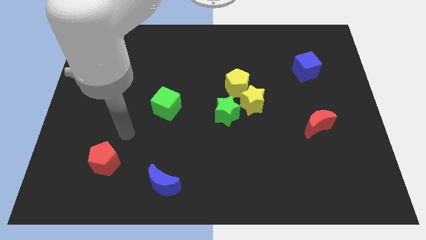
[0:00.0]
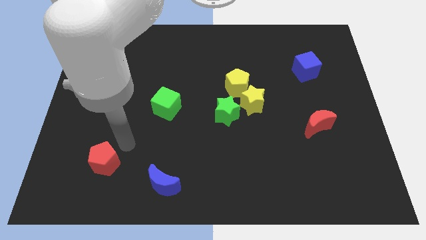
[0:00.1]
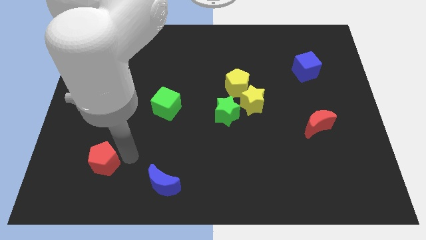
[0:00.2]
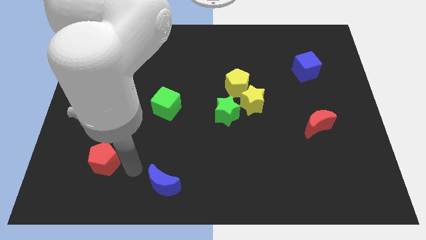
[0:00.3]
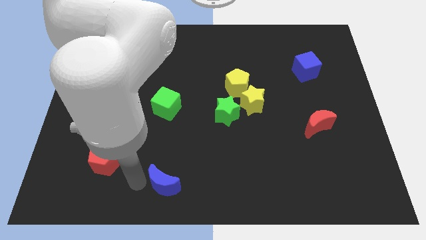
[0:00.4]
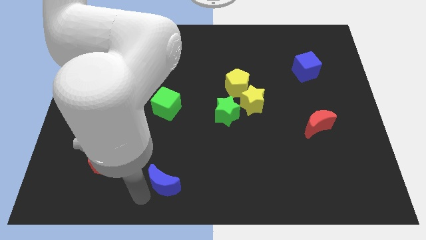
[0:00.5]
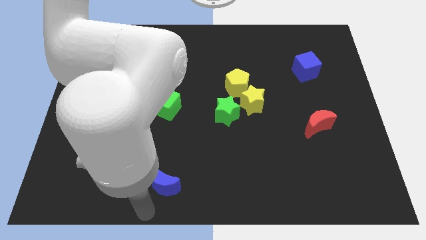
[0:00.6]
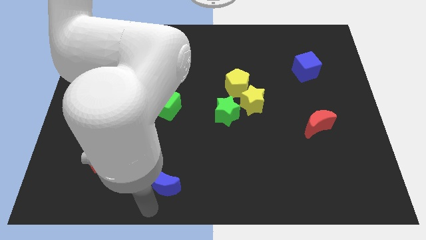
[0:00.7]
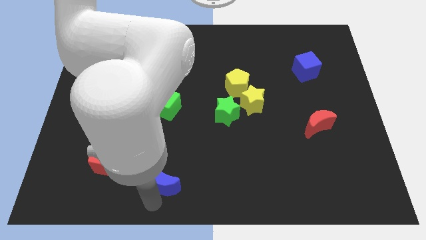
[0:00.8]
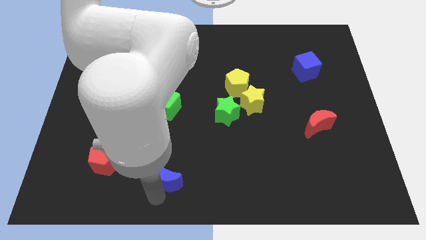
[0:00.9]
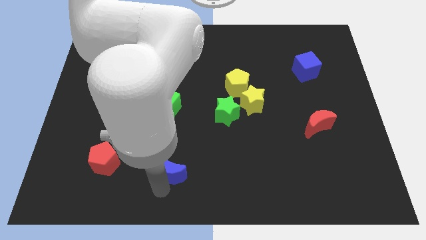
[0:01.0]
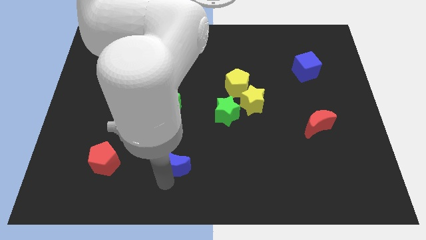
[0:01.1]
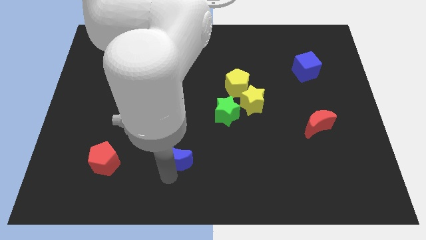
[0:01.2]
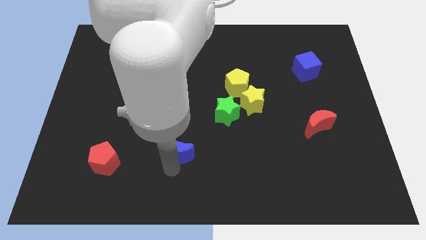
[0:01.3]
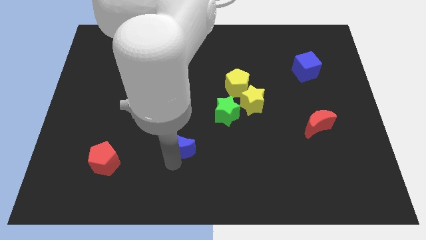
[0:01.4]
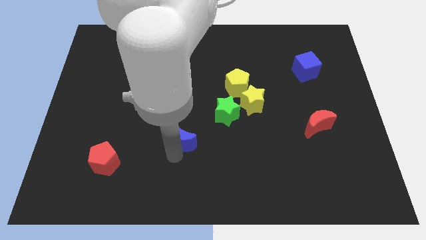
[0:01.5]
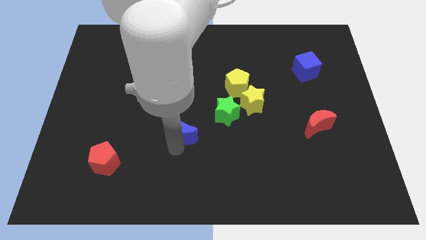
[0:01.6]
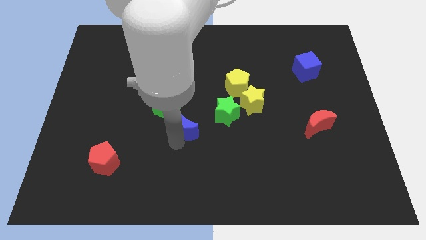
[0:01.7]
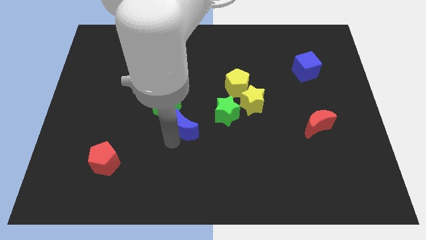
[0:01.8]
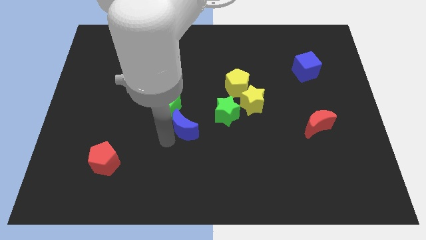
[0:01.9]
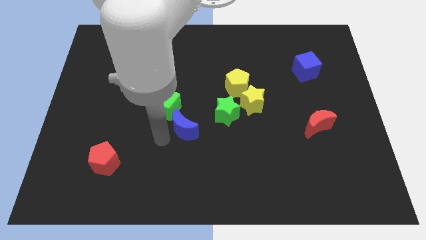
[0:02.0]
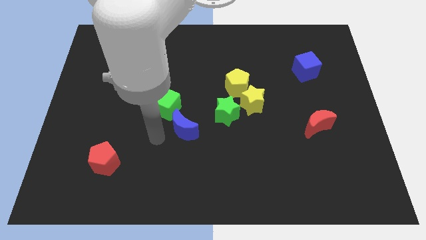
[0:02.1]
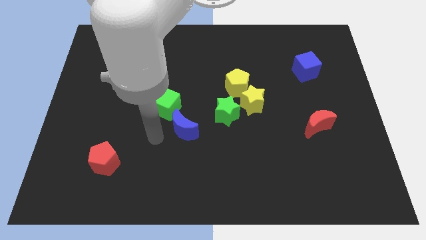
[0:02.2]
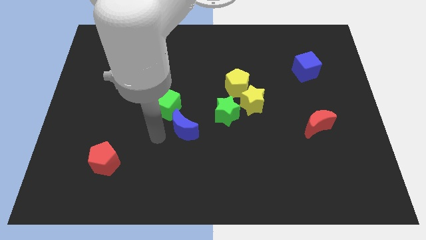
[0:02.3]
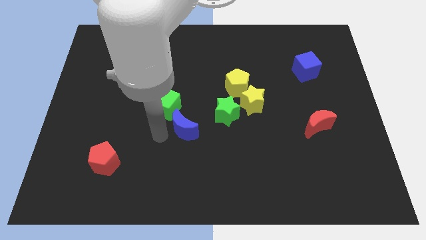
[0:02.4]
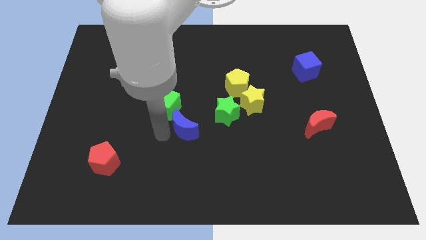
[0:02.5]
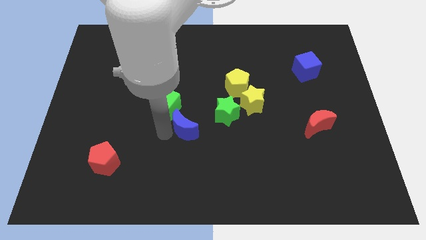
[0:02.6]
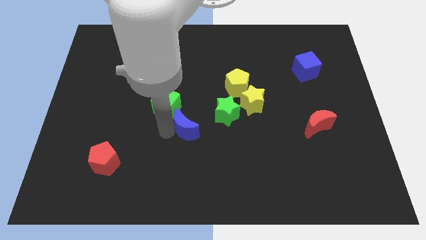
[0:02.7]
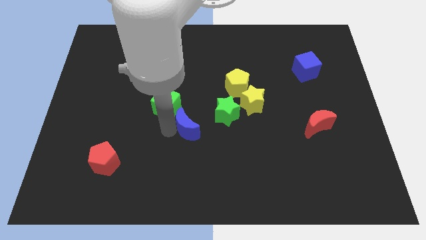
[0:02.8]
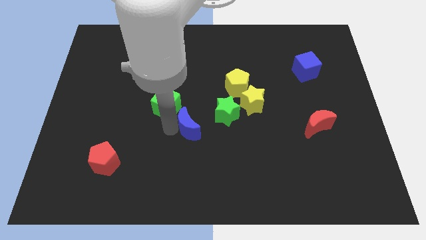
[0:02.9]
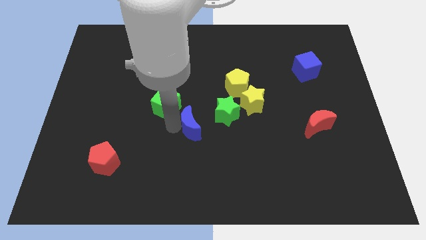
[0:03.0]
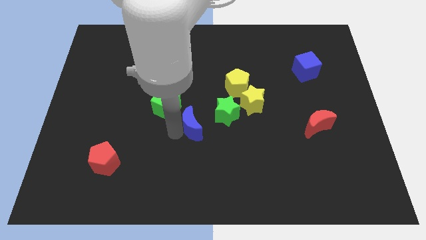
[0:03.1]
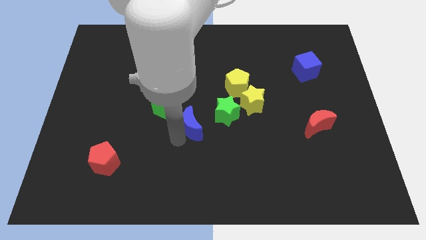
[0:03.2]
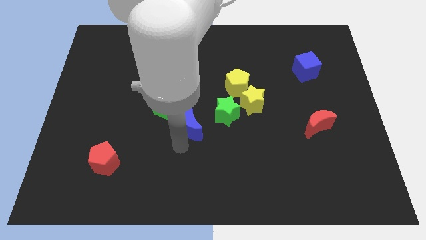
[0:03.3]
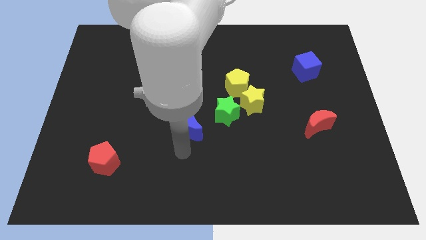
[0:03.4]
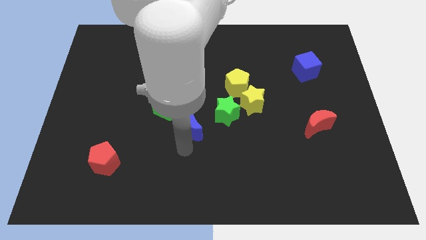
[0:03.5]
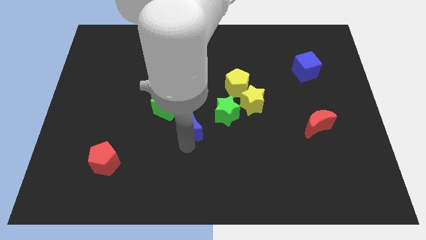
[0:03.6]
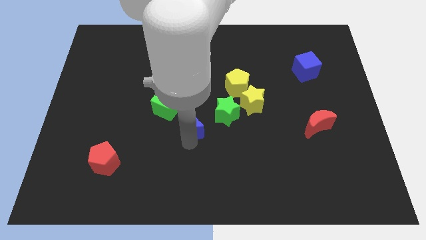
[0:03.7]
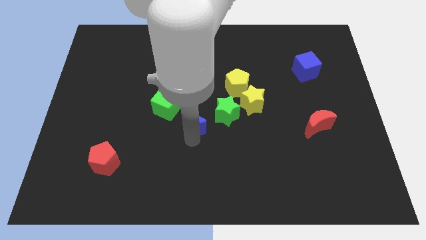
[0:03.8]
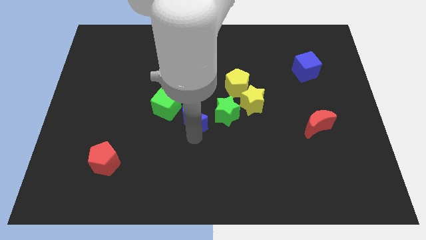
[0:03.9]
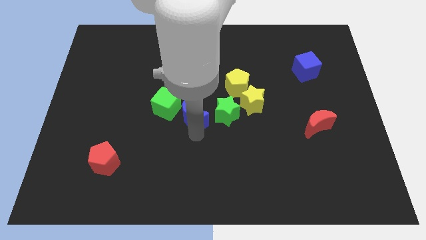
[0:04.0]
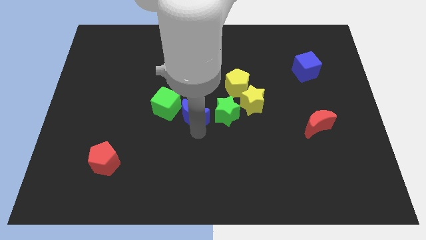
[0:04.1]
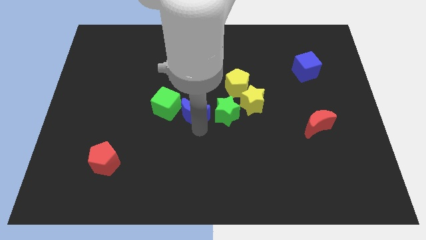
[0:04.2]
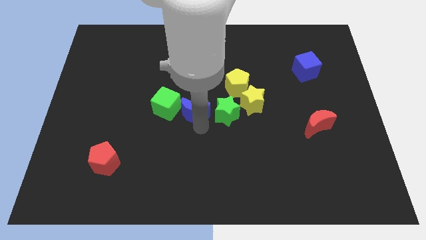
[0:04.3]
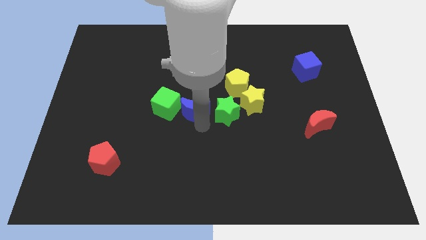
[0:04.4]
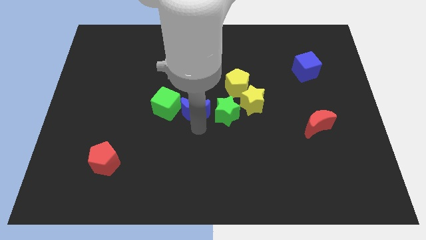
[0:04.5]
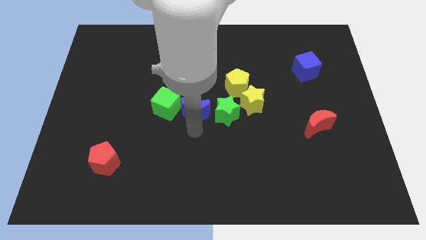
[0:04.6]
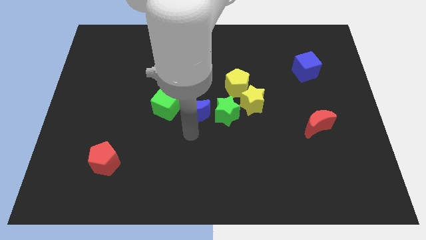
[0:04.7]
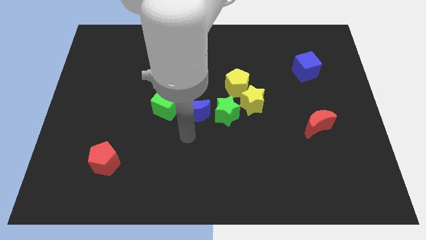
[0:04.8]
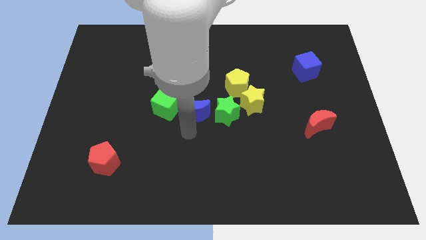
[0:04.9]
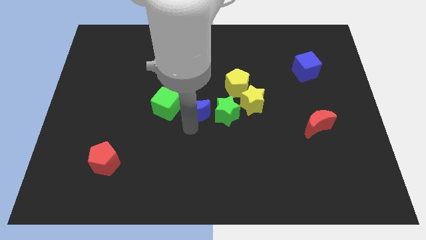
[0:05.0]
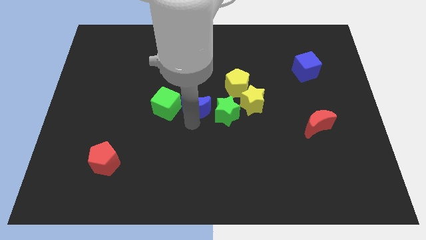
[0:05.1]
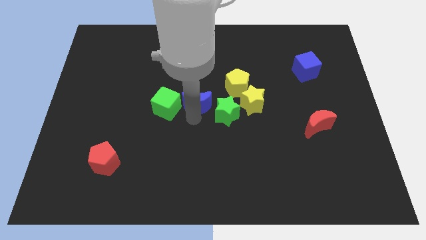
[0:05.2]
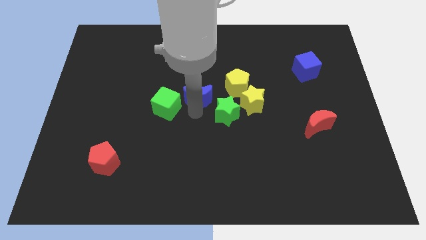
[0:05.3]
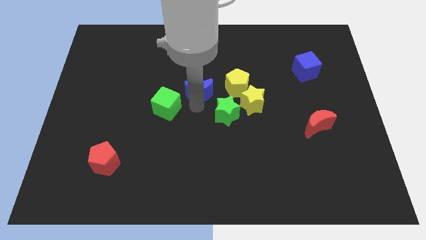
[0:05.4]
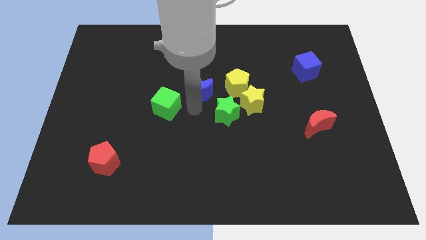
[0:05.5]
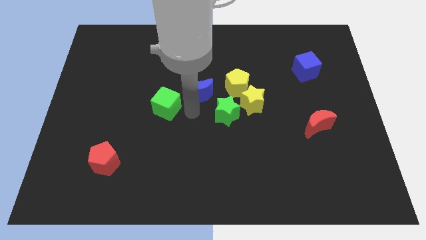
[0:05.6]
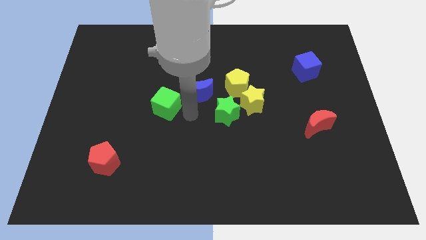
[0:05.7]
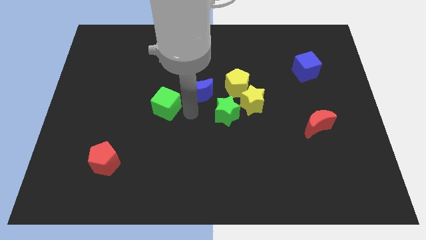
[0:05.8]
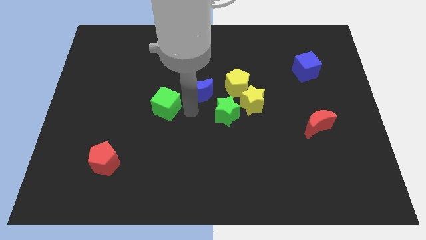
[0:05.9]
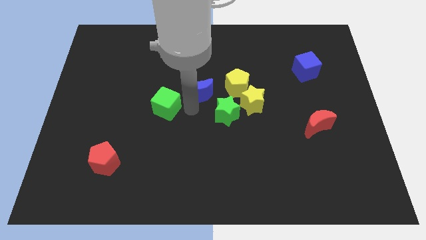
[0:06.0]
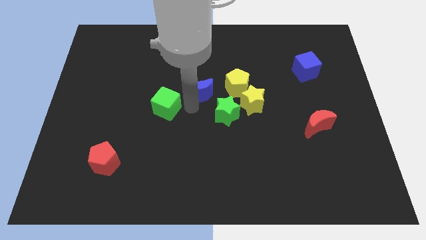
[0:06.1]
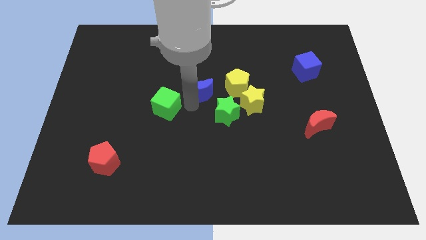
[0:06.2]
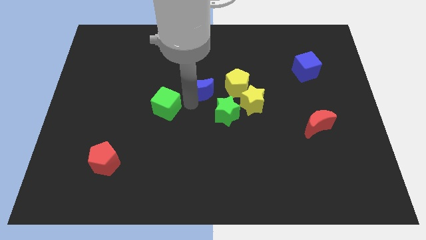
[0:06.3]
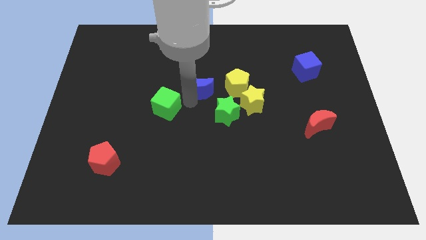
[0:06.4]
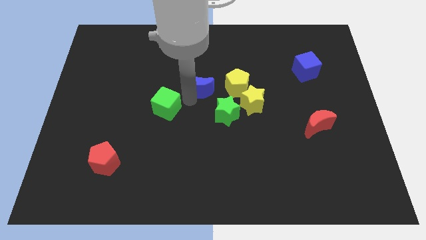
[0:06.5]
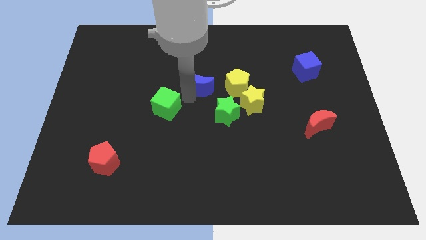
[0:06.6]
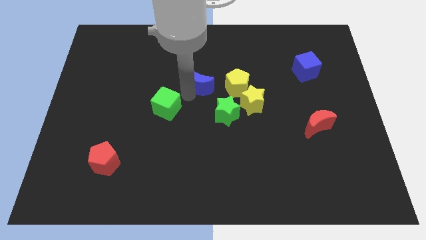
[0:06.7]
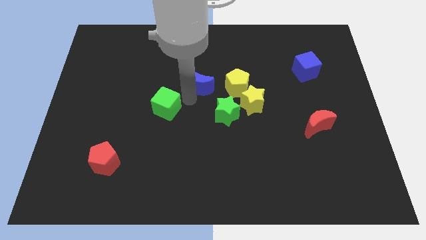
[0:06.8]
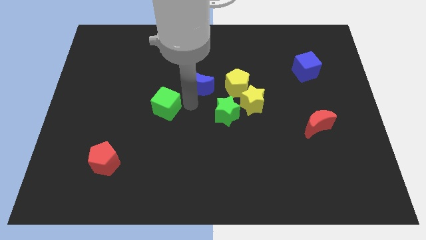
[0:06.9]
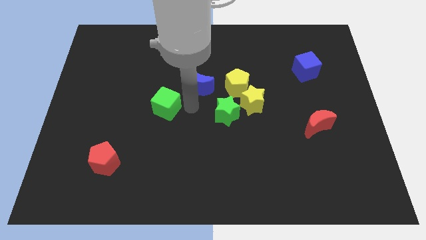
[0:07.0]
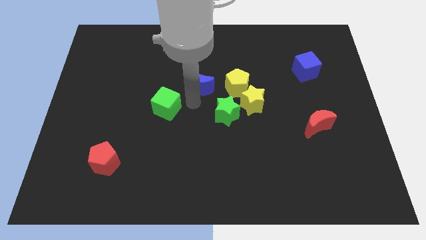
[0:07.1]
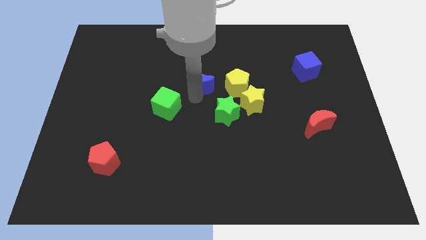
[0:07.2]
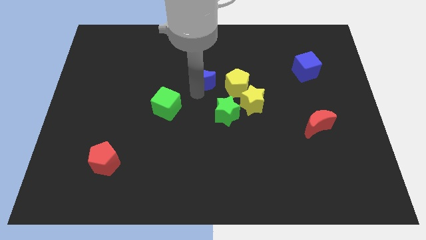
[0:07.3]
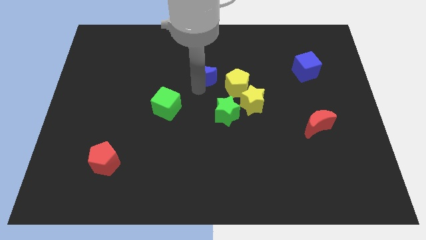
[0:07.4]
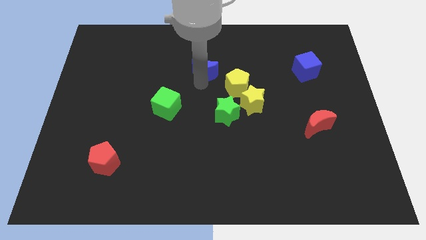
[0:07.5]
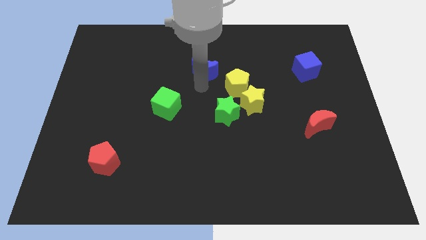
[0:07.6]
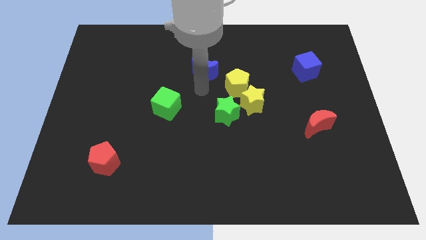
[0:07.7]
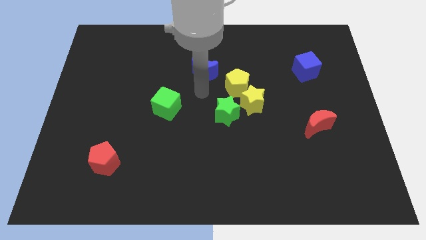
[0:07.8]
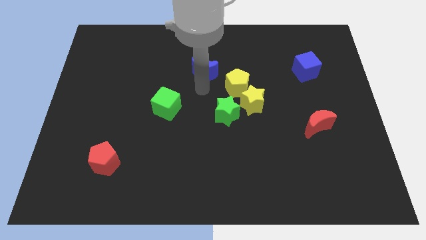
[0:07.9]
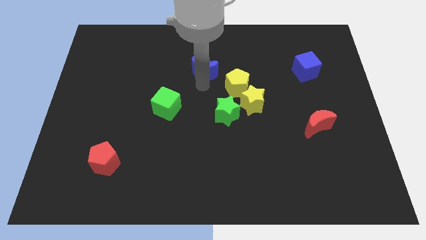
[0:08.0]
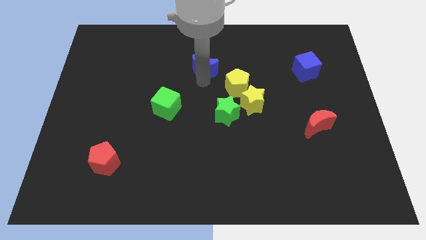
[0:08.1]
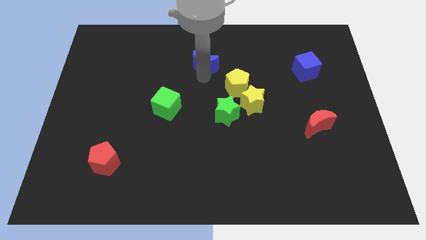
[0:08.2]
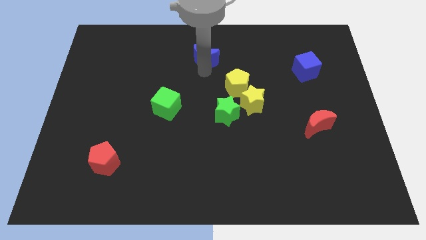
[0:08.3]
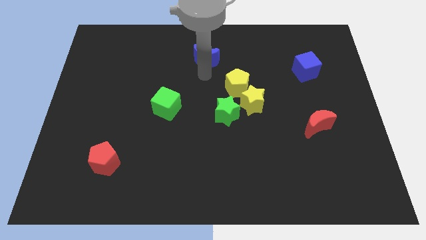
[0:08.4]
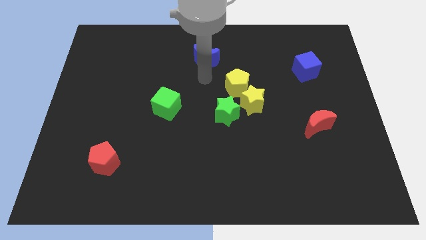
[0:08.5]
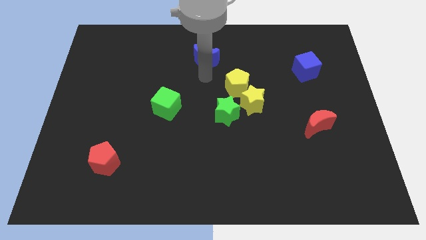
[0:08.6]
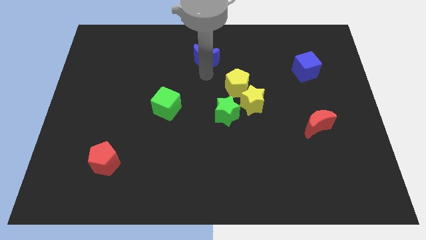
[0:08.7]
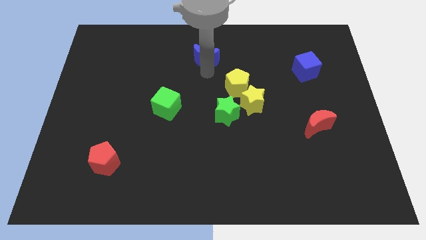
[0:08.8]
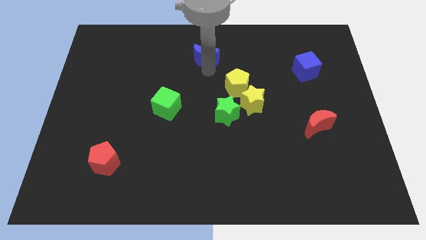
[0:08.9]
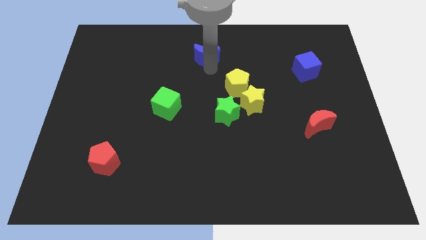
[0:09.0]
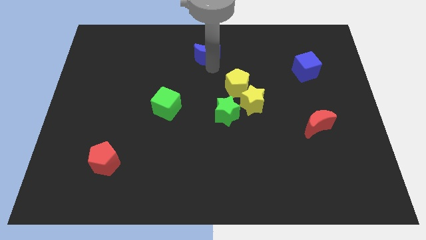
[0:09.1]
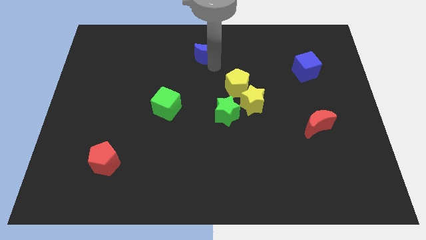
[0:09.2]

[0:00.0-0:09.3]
move the blue moon to the top
